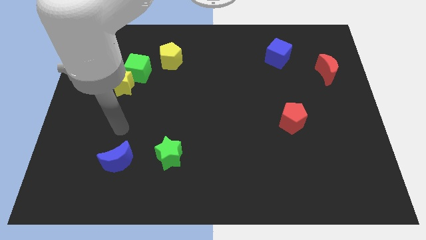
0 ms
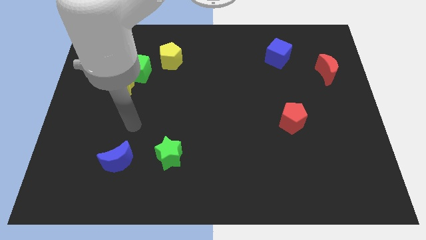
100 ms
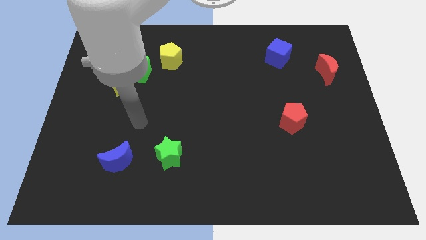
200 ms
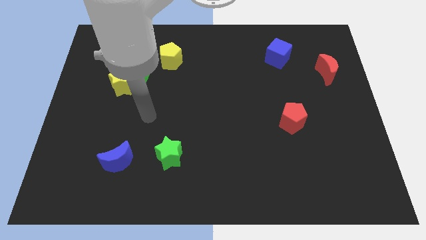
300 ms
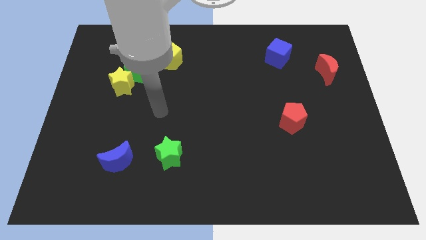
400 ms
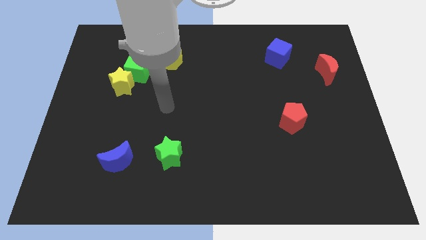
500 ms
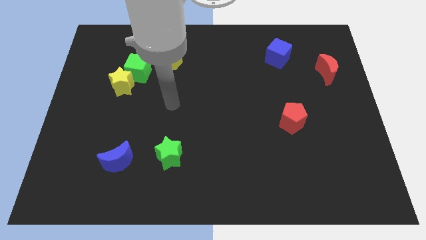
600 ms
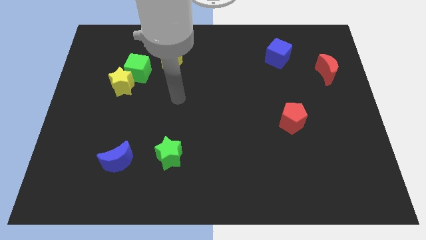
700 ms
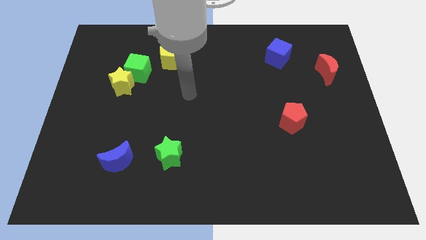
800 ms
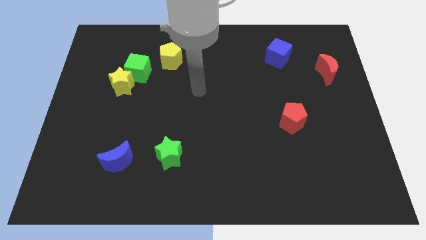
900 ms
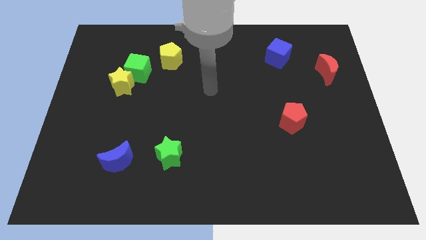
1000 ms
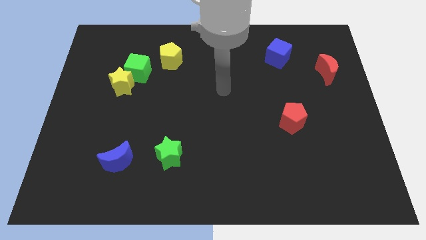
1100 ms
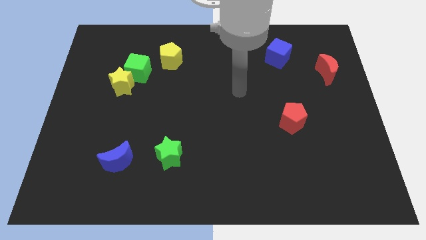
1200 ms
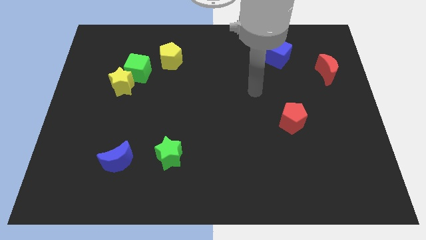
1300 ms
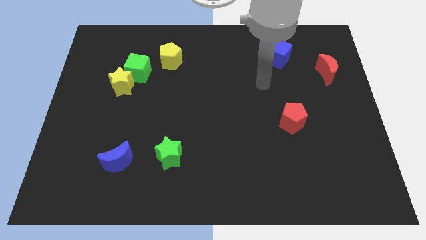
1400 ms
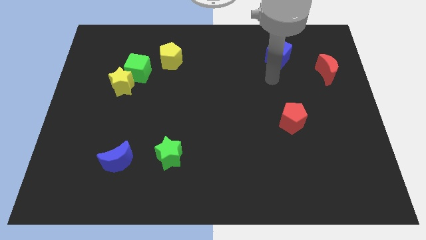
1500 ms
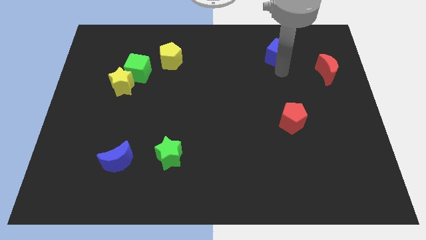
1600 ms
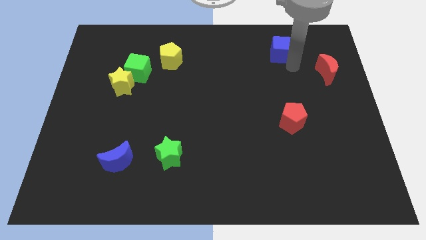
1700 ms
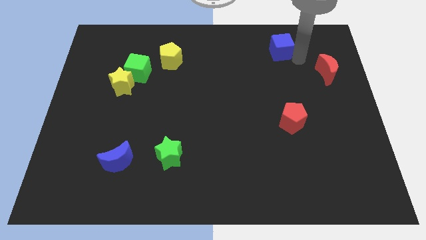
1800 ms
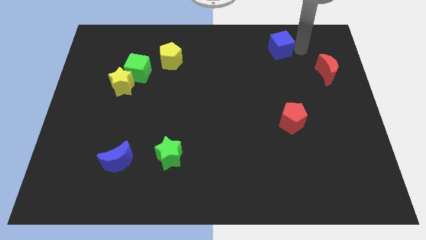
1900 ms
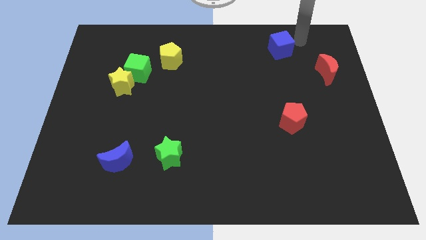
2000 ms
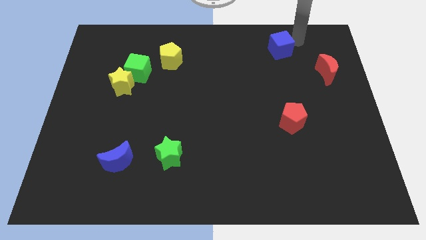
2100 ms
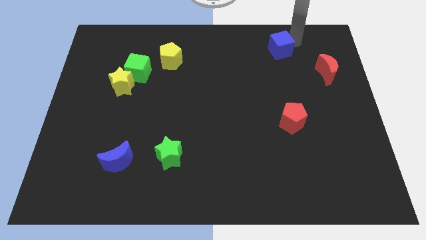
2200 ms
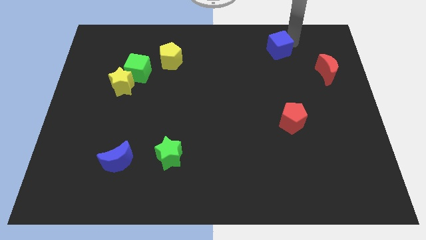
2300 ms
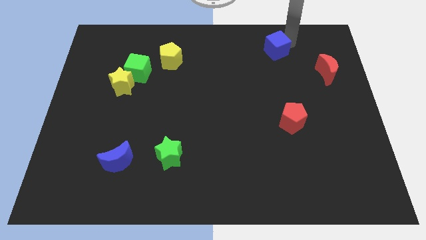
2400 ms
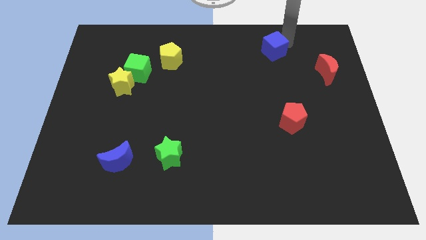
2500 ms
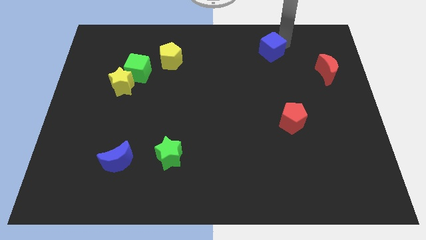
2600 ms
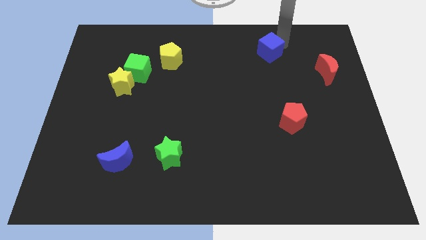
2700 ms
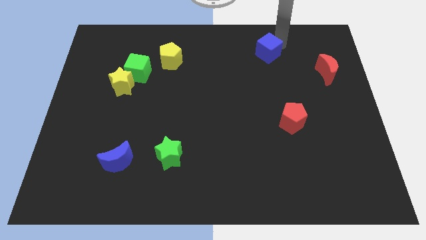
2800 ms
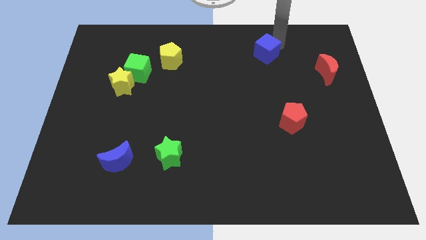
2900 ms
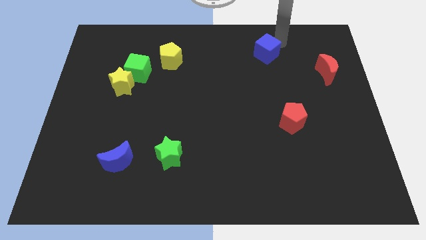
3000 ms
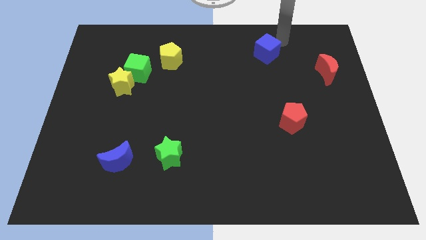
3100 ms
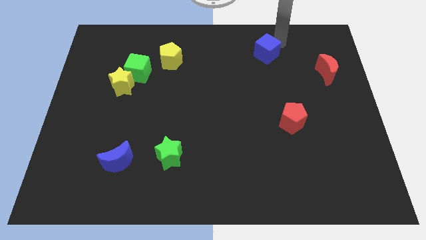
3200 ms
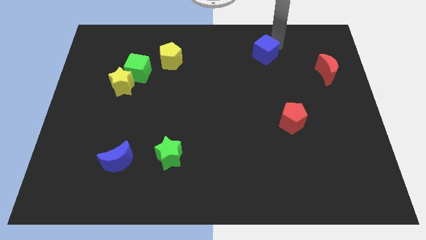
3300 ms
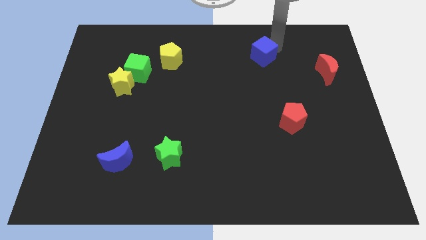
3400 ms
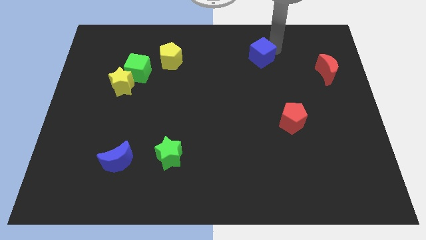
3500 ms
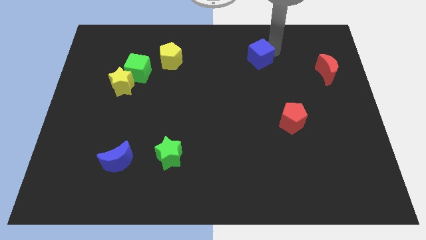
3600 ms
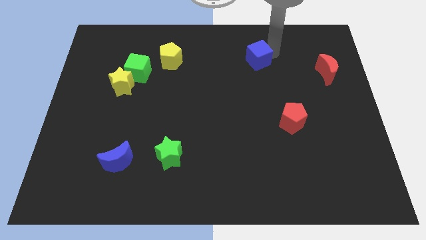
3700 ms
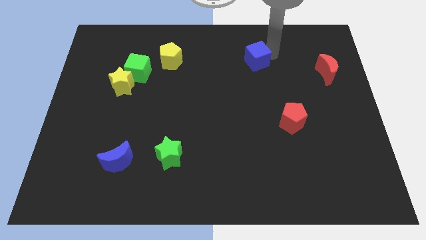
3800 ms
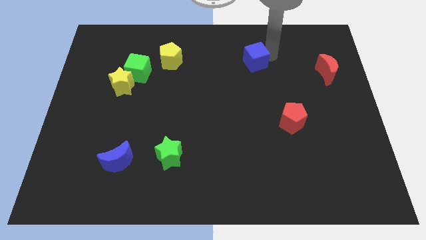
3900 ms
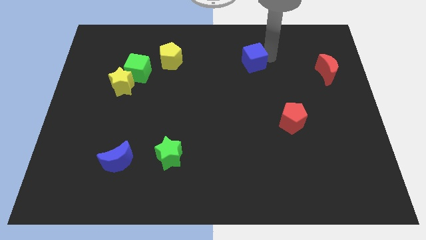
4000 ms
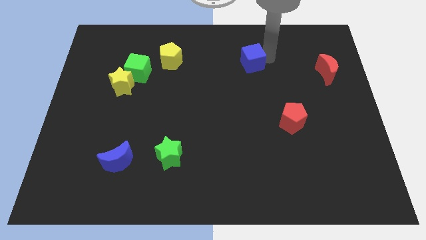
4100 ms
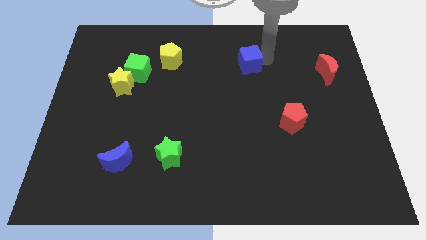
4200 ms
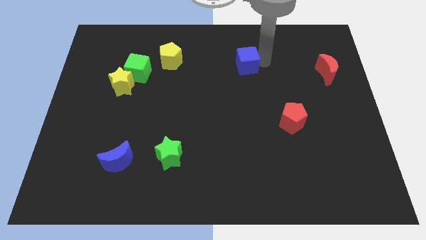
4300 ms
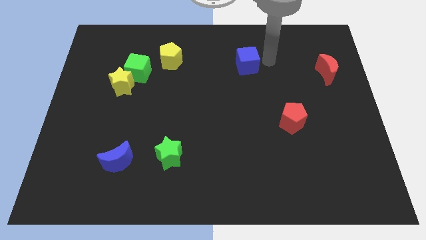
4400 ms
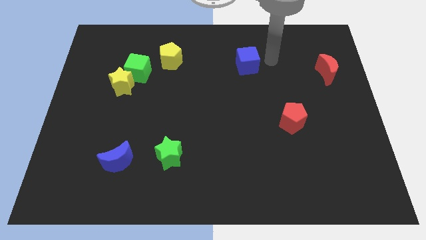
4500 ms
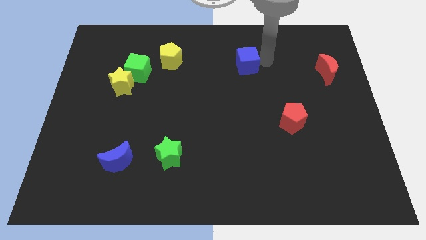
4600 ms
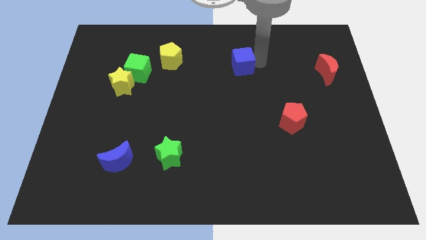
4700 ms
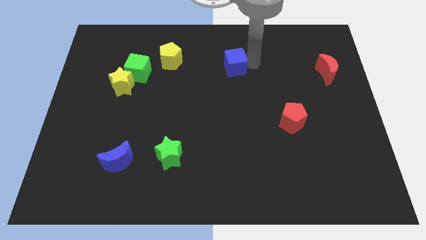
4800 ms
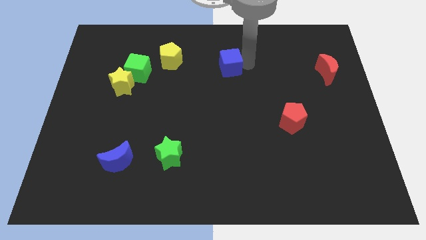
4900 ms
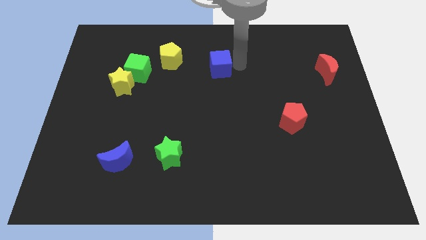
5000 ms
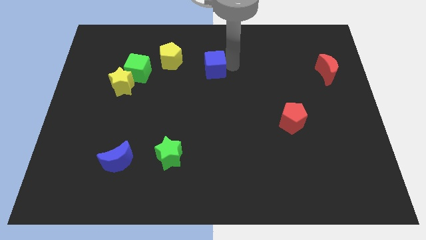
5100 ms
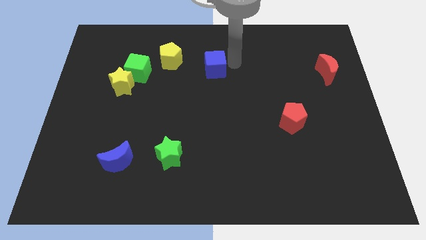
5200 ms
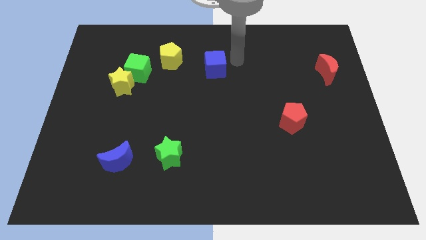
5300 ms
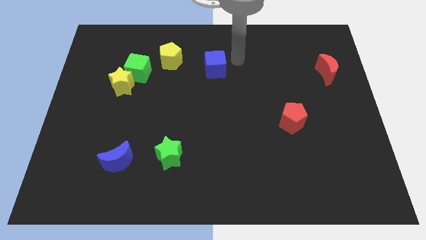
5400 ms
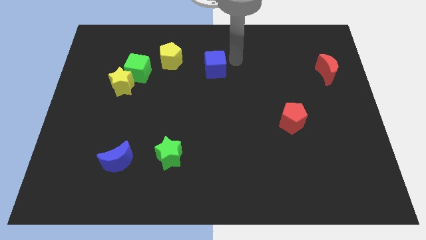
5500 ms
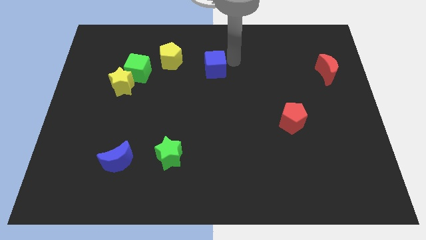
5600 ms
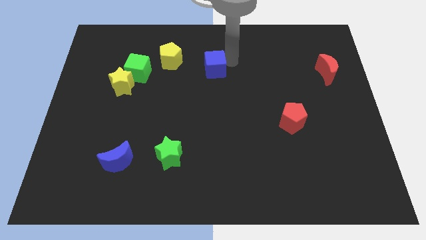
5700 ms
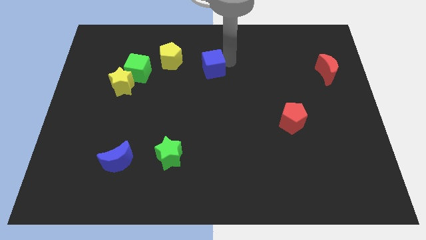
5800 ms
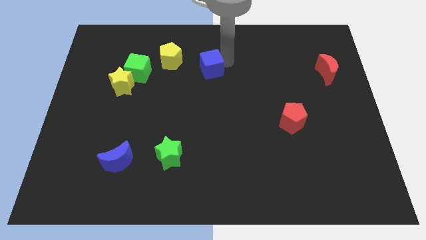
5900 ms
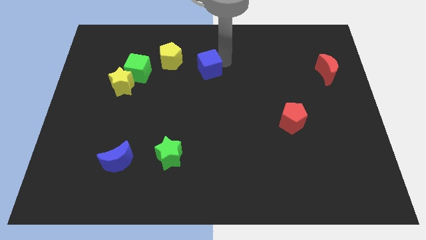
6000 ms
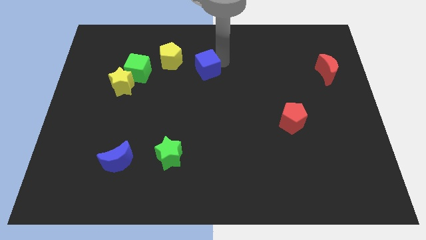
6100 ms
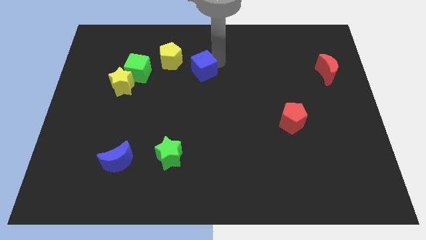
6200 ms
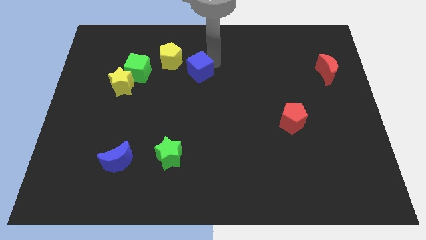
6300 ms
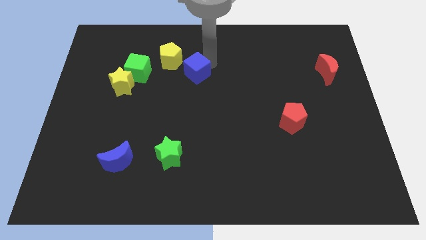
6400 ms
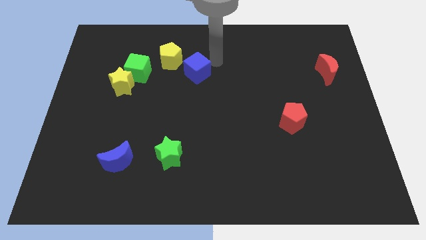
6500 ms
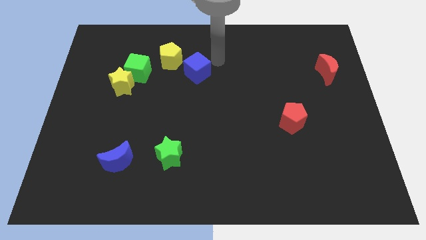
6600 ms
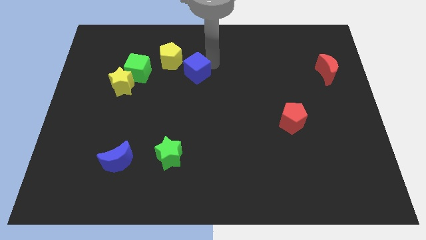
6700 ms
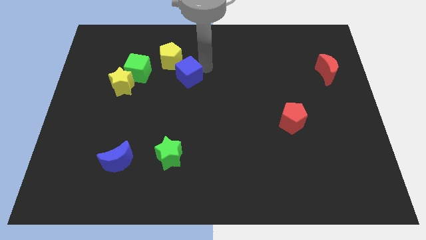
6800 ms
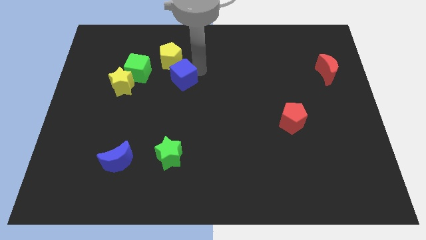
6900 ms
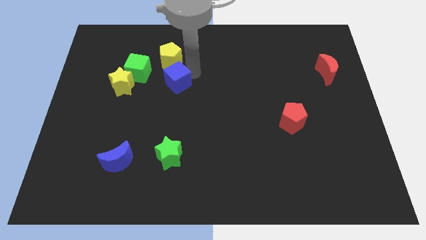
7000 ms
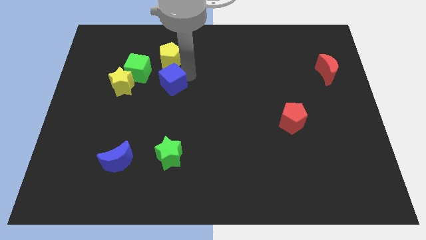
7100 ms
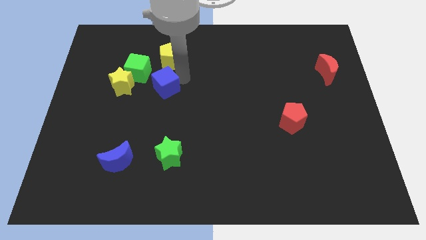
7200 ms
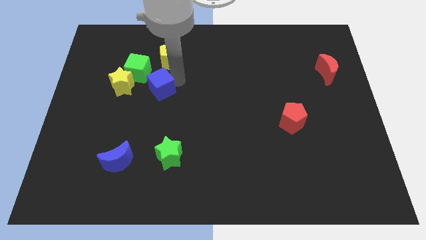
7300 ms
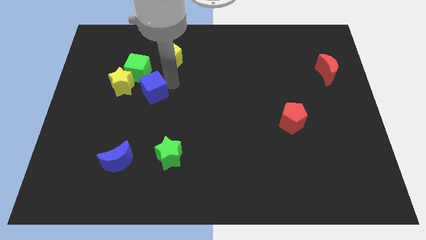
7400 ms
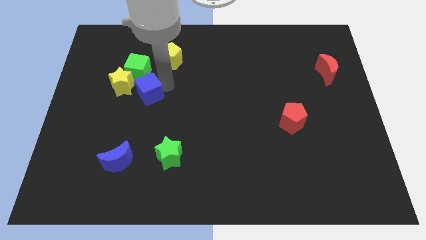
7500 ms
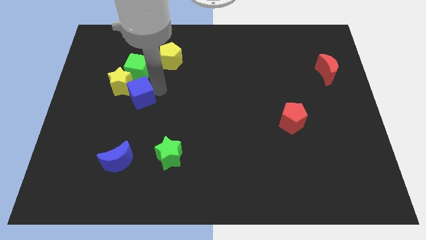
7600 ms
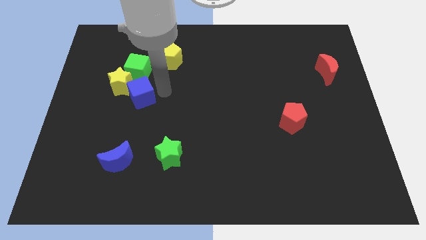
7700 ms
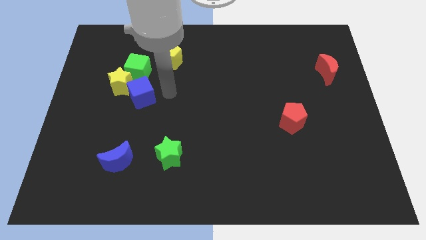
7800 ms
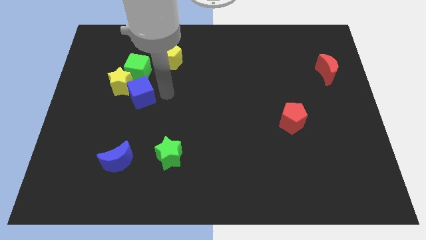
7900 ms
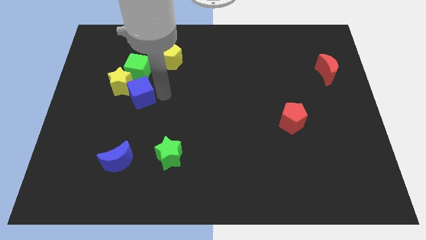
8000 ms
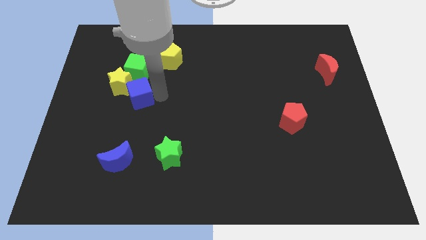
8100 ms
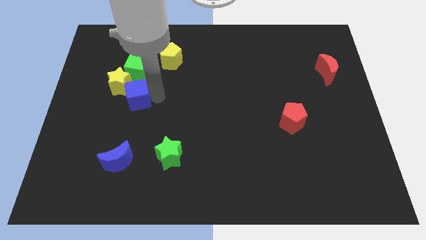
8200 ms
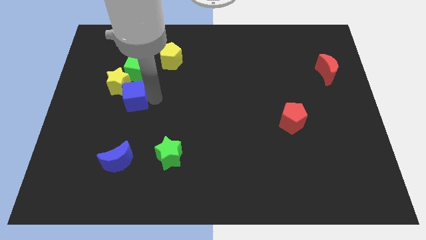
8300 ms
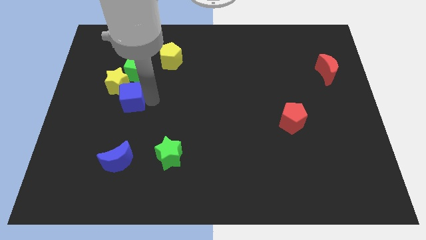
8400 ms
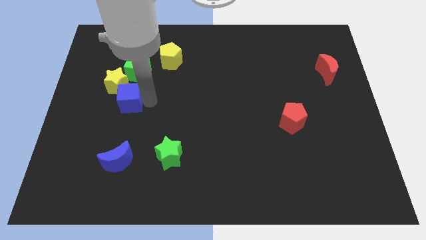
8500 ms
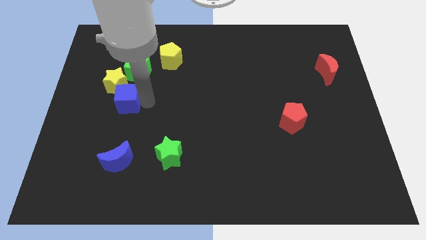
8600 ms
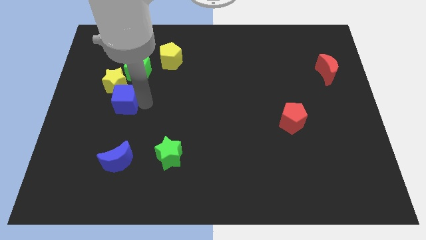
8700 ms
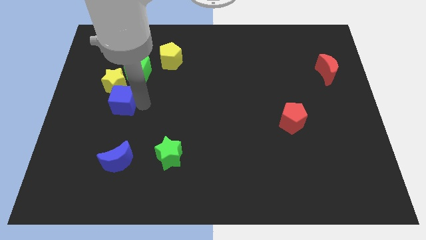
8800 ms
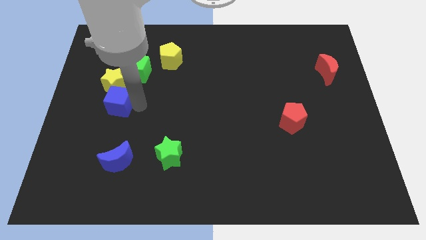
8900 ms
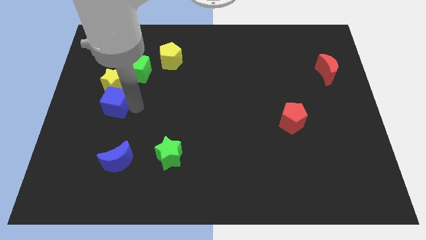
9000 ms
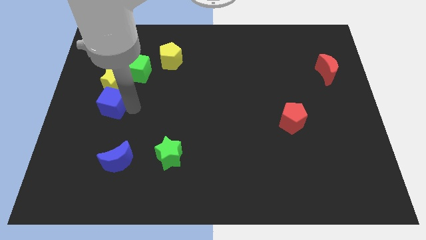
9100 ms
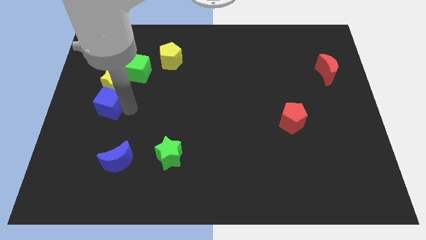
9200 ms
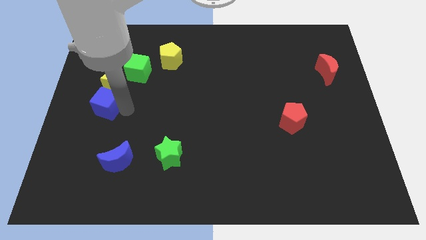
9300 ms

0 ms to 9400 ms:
push the blue cube to the left side
